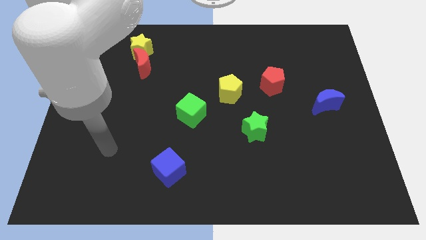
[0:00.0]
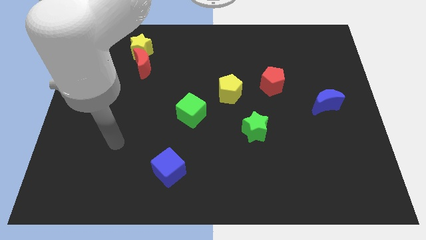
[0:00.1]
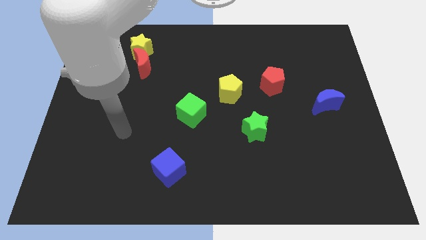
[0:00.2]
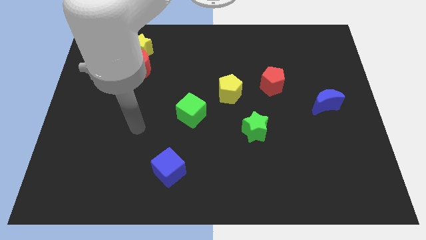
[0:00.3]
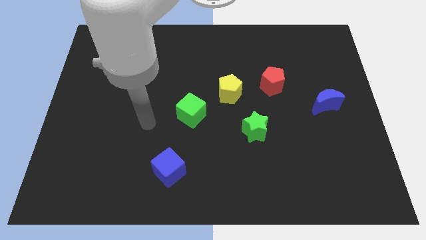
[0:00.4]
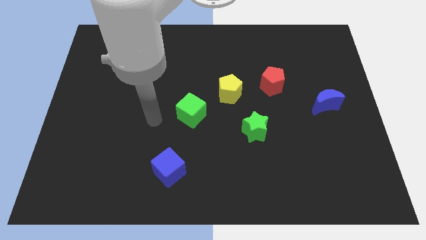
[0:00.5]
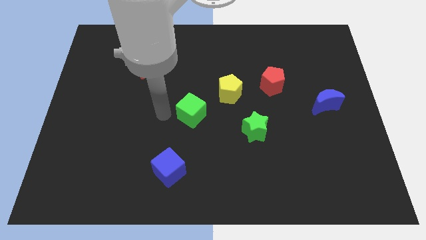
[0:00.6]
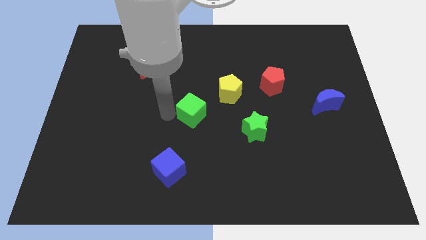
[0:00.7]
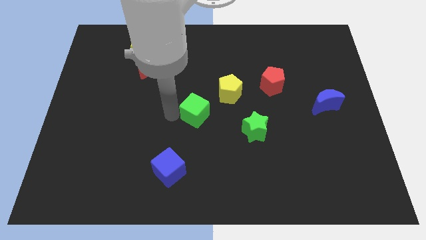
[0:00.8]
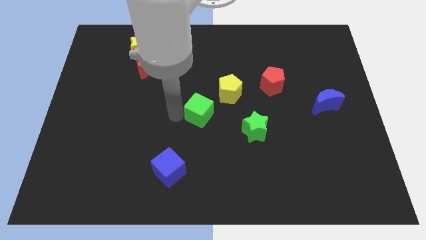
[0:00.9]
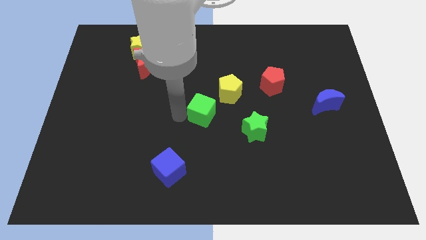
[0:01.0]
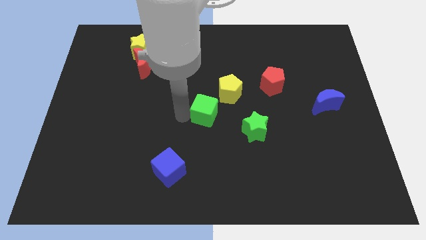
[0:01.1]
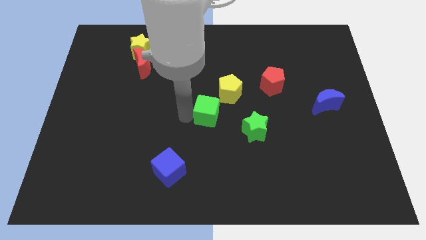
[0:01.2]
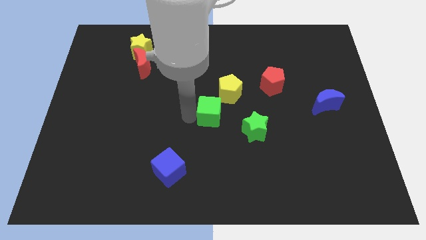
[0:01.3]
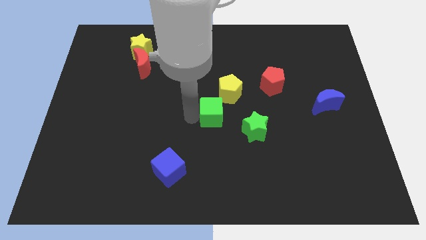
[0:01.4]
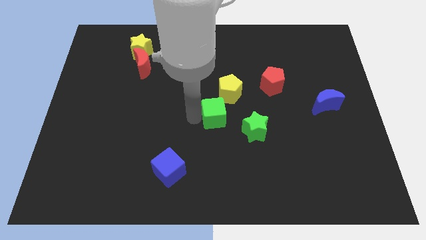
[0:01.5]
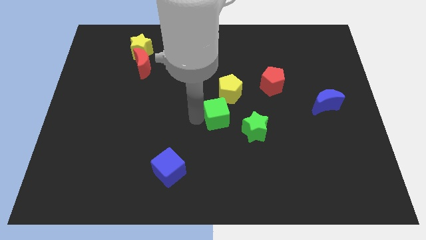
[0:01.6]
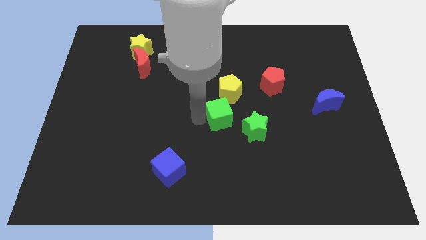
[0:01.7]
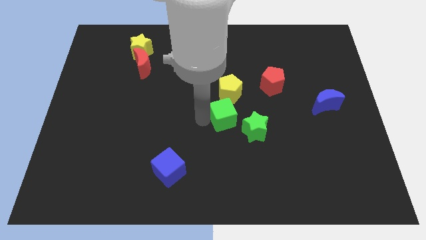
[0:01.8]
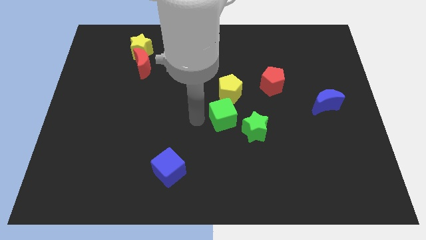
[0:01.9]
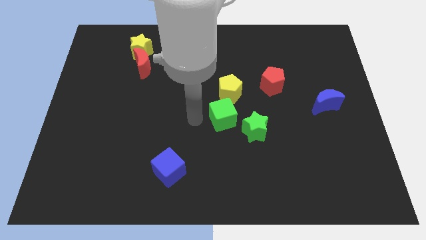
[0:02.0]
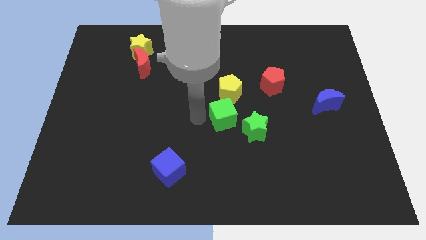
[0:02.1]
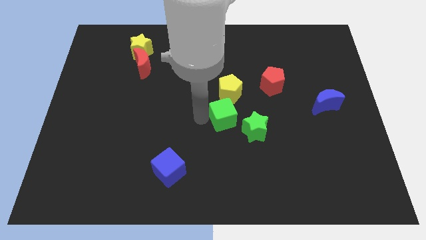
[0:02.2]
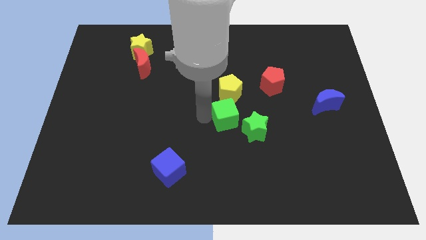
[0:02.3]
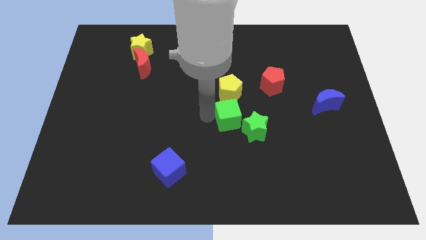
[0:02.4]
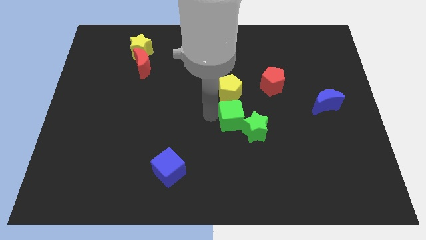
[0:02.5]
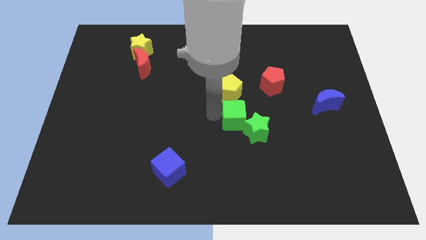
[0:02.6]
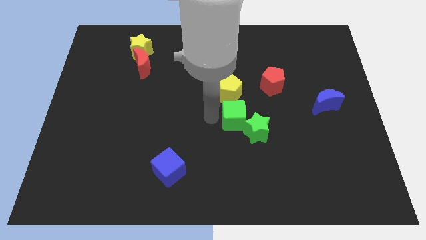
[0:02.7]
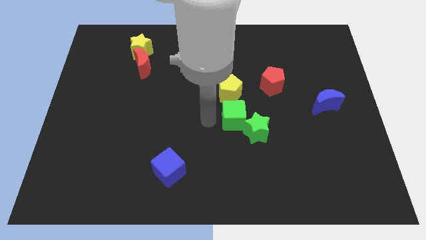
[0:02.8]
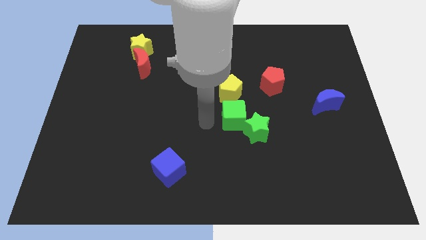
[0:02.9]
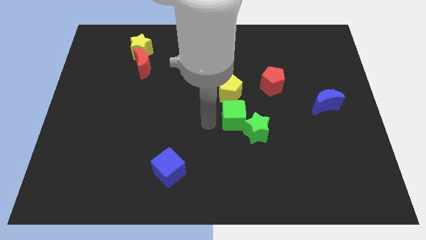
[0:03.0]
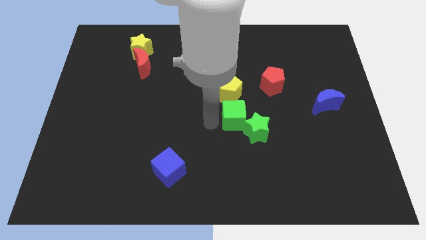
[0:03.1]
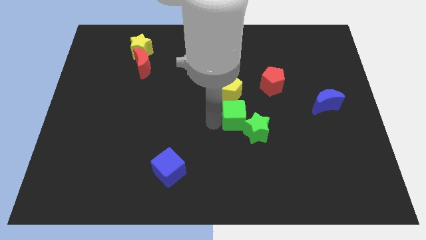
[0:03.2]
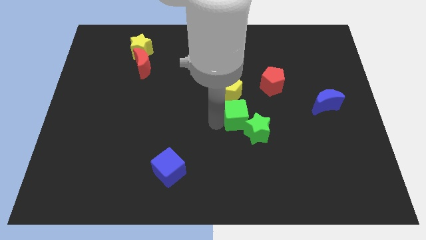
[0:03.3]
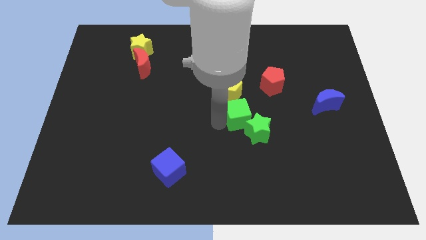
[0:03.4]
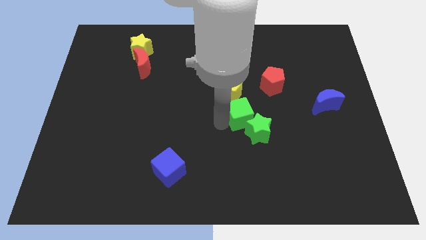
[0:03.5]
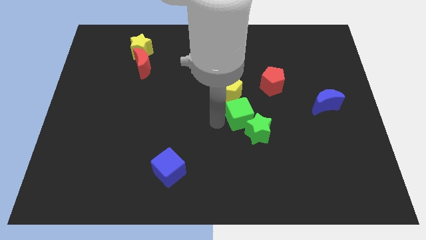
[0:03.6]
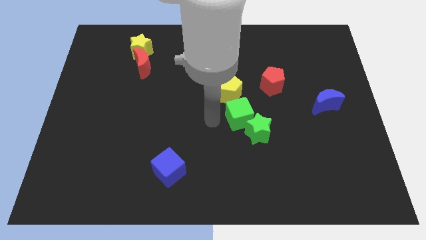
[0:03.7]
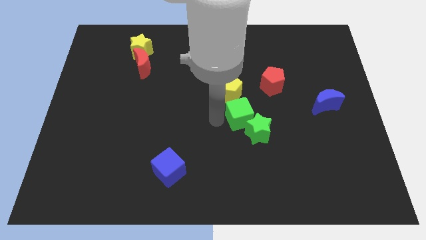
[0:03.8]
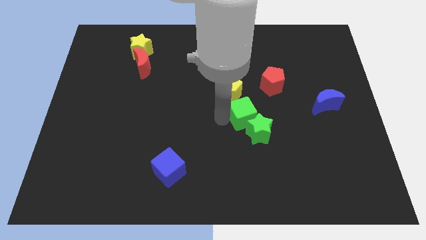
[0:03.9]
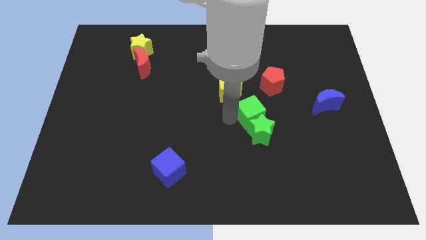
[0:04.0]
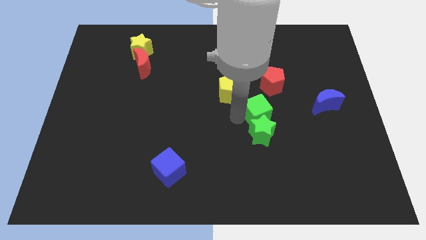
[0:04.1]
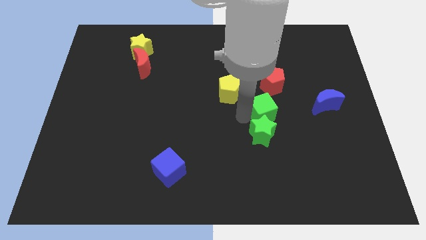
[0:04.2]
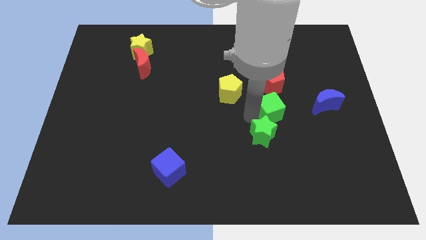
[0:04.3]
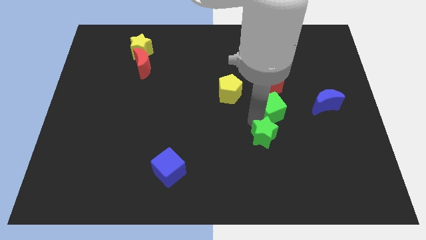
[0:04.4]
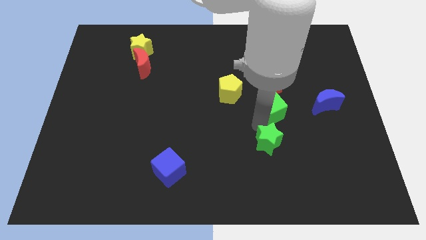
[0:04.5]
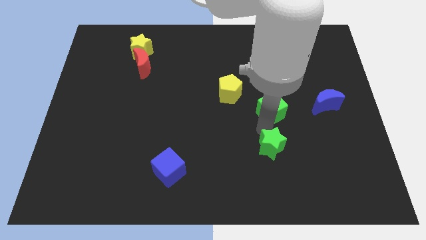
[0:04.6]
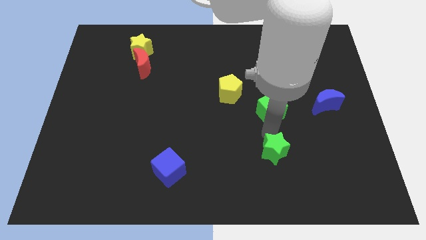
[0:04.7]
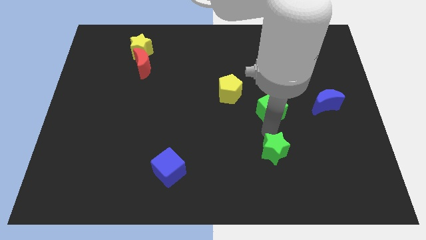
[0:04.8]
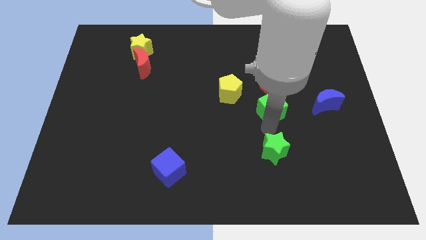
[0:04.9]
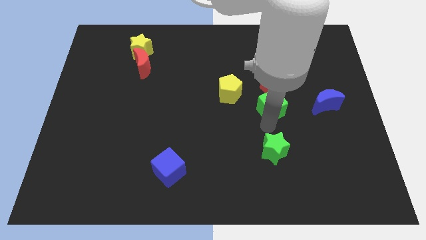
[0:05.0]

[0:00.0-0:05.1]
push the green cube to the right of the yellow pentagon

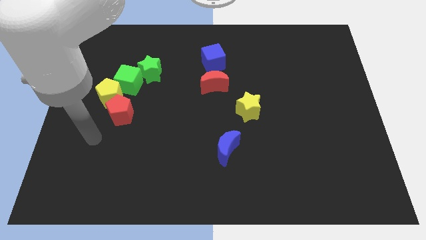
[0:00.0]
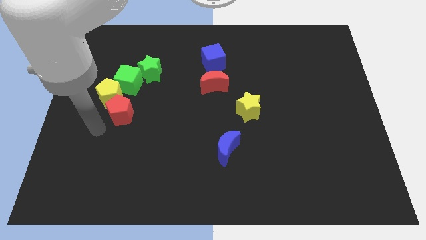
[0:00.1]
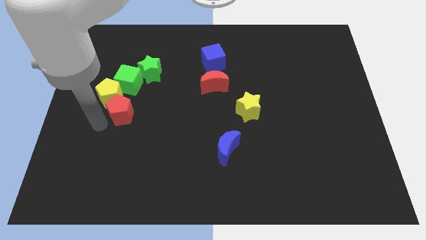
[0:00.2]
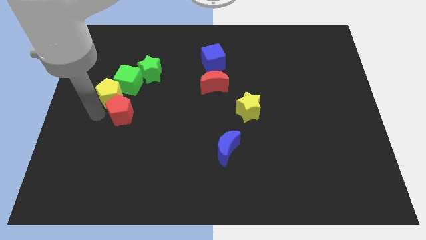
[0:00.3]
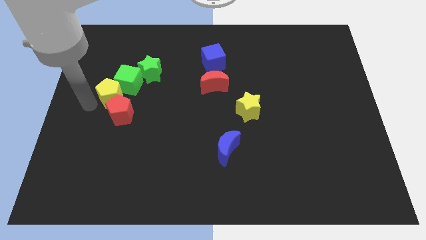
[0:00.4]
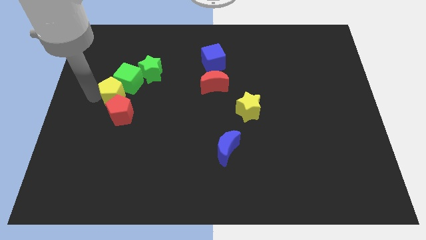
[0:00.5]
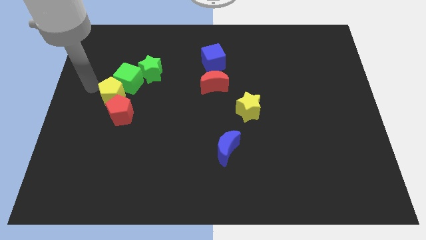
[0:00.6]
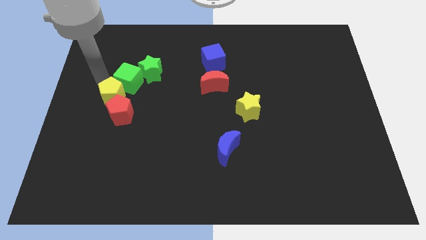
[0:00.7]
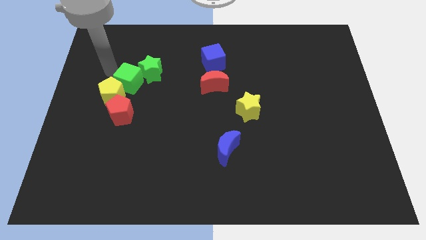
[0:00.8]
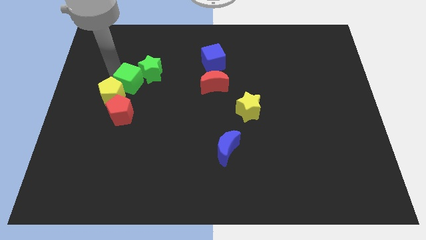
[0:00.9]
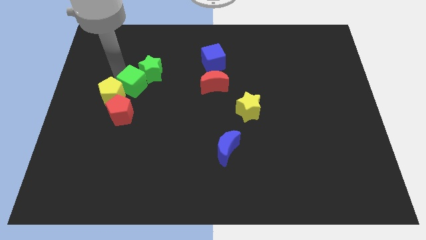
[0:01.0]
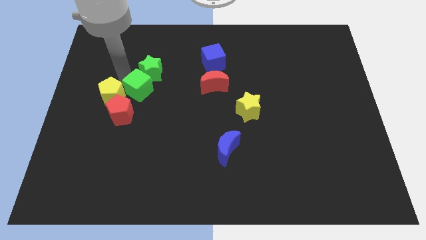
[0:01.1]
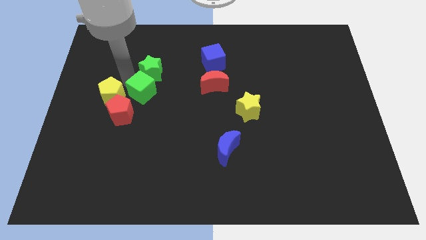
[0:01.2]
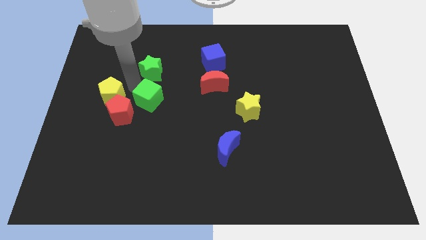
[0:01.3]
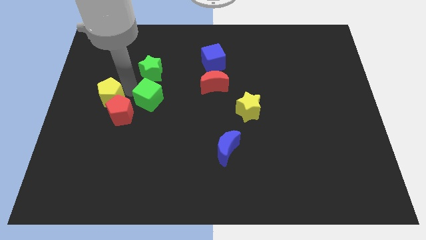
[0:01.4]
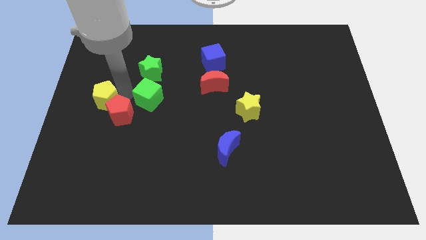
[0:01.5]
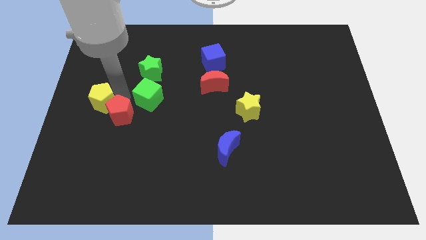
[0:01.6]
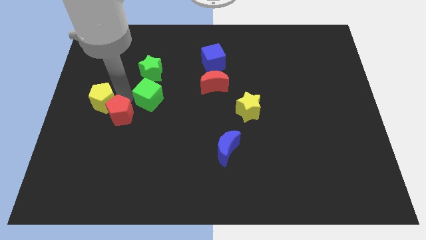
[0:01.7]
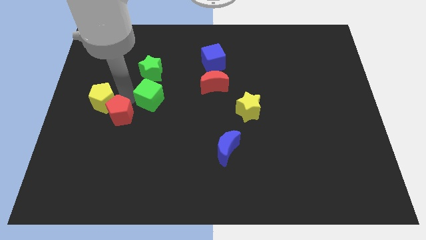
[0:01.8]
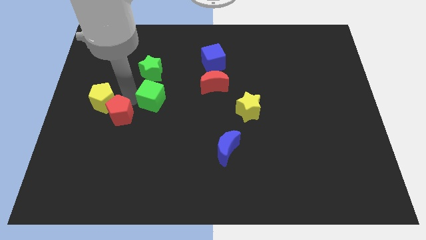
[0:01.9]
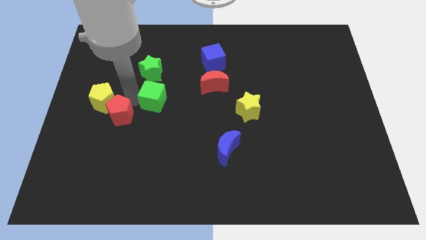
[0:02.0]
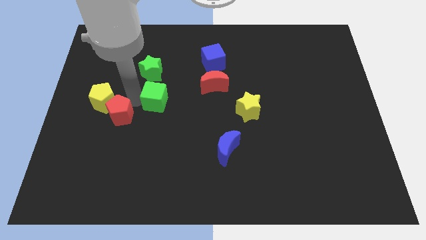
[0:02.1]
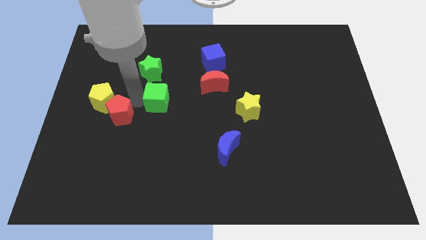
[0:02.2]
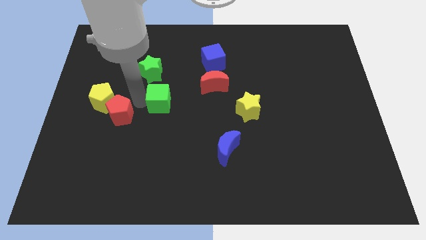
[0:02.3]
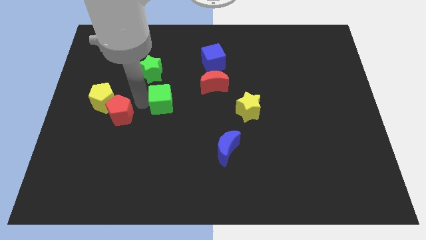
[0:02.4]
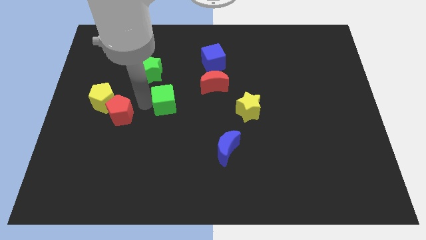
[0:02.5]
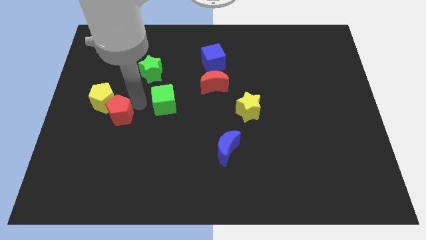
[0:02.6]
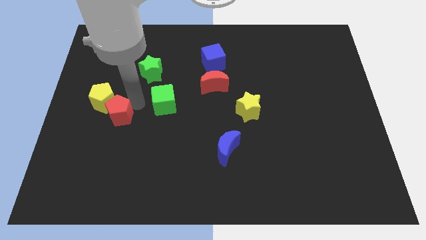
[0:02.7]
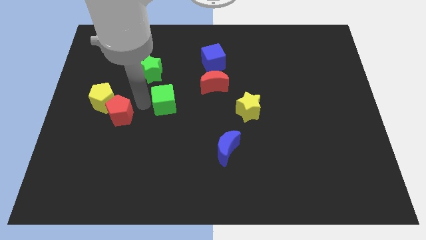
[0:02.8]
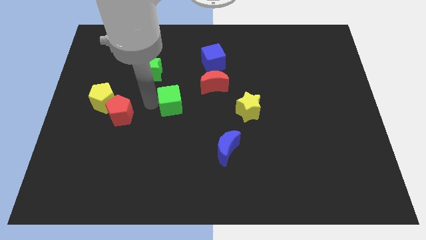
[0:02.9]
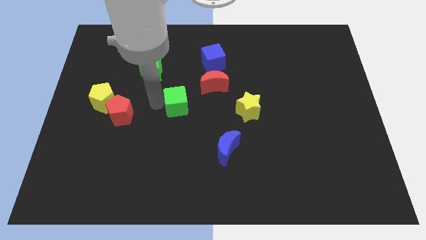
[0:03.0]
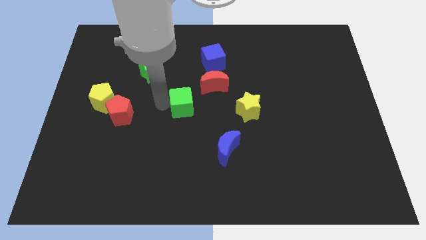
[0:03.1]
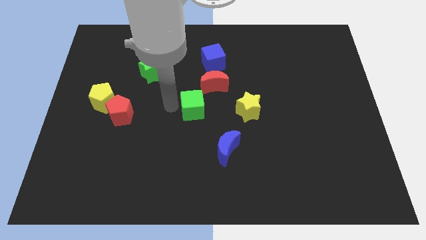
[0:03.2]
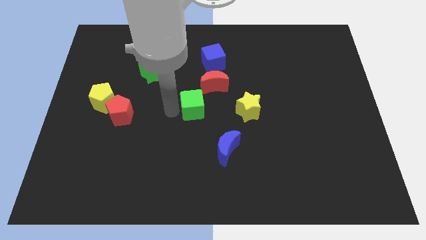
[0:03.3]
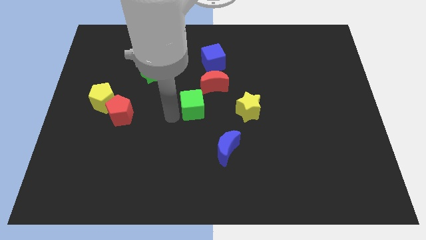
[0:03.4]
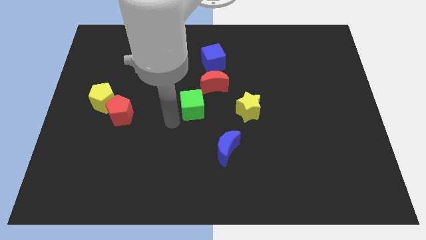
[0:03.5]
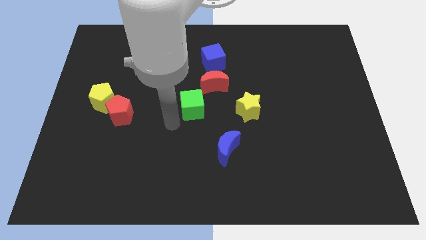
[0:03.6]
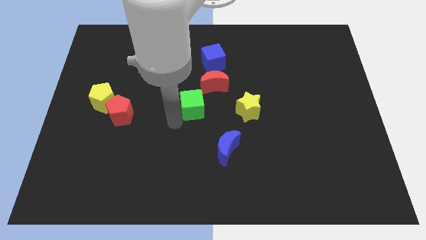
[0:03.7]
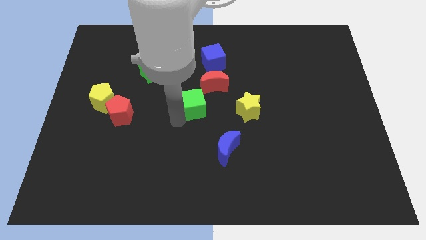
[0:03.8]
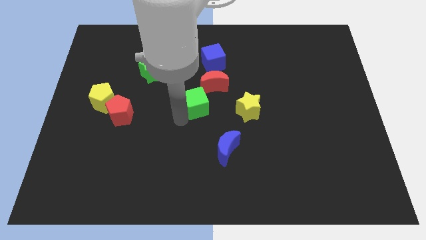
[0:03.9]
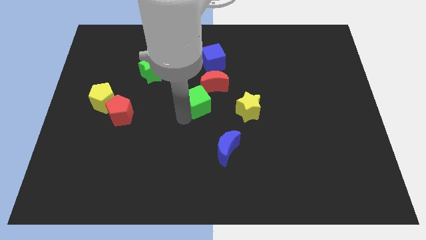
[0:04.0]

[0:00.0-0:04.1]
put the green cube to the bottom of the blue cube
